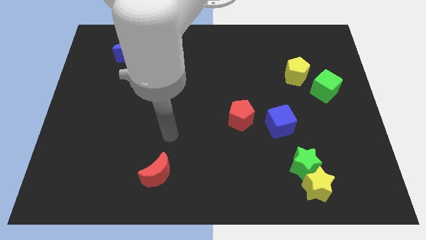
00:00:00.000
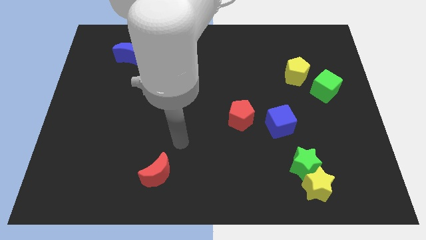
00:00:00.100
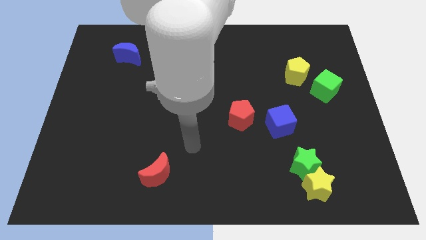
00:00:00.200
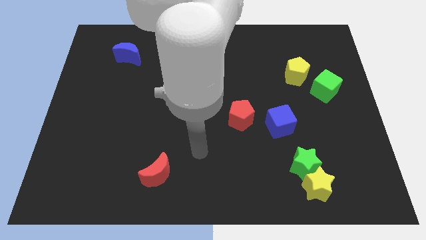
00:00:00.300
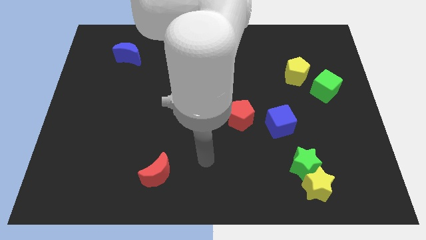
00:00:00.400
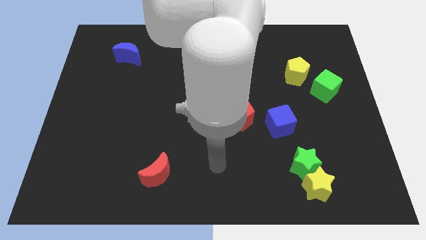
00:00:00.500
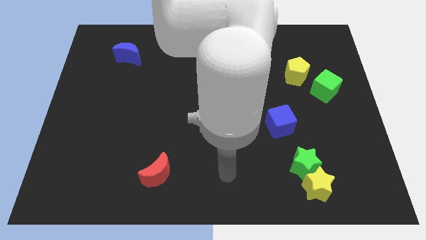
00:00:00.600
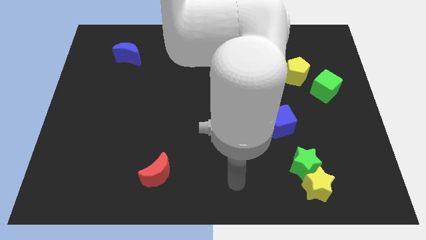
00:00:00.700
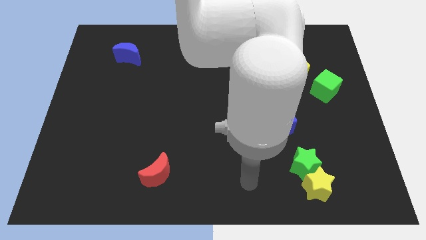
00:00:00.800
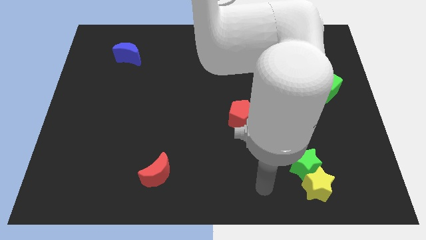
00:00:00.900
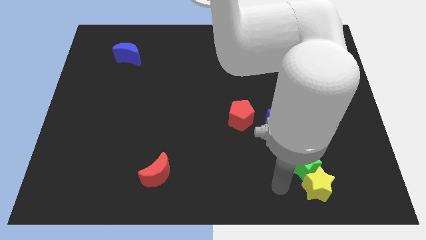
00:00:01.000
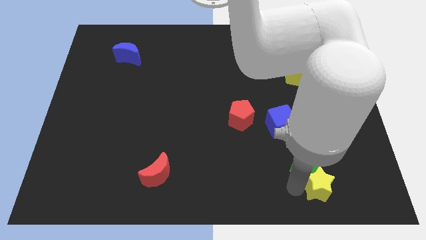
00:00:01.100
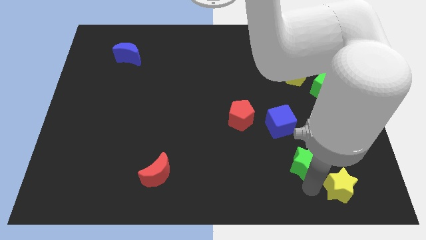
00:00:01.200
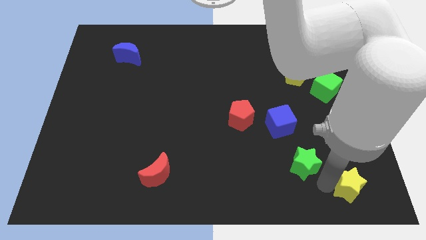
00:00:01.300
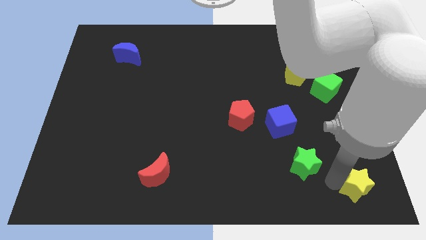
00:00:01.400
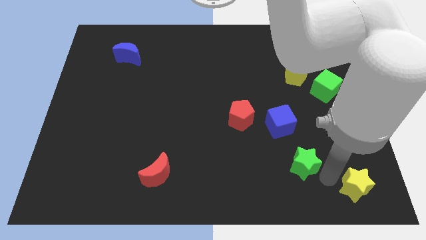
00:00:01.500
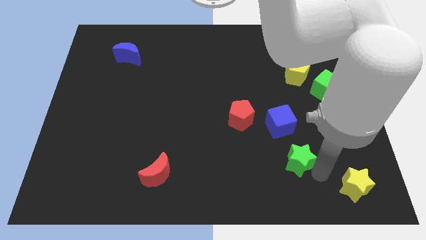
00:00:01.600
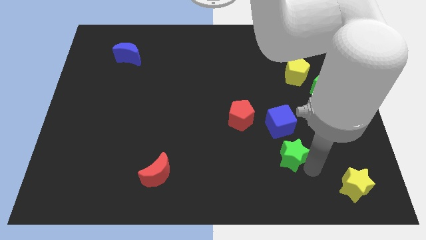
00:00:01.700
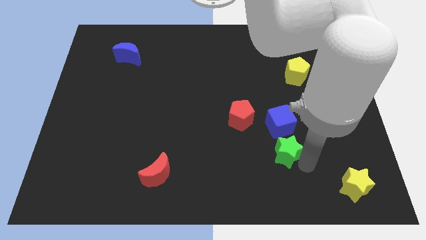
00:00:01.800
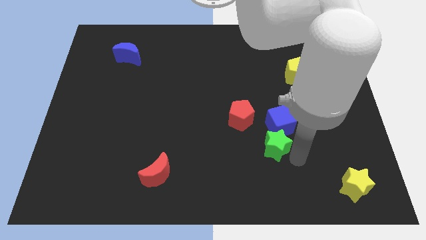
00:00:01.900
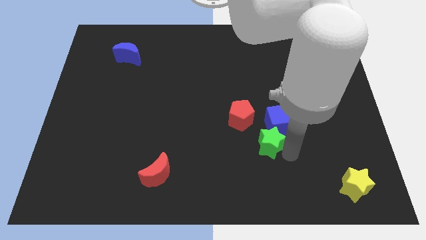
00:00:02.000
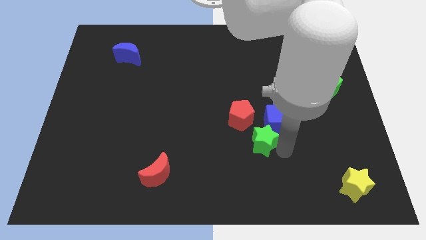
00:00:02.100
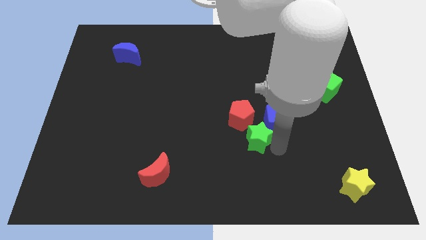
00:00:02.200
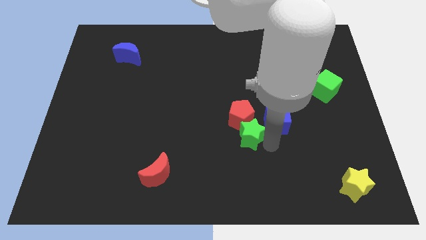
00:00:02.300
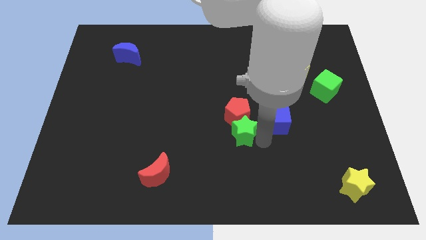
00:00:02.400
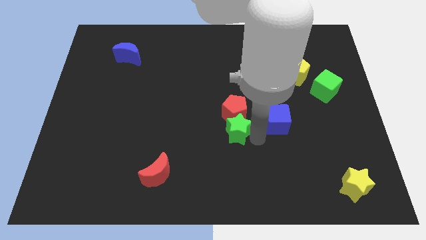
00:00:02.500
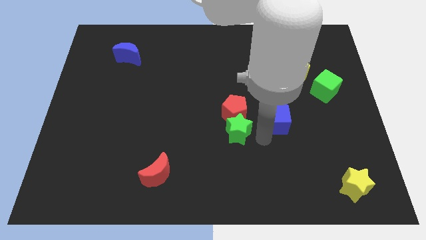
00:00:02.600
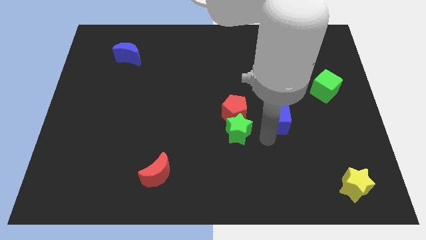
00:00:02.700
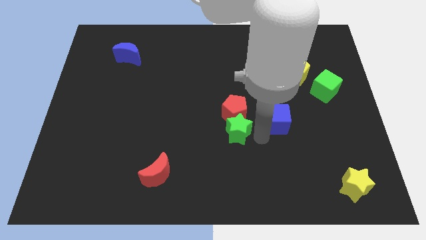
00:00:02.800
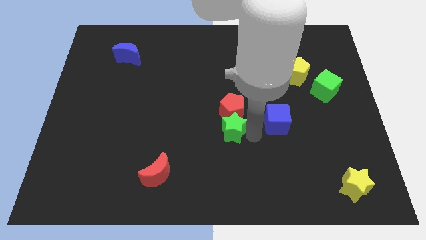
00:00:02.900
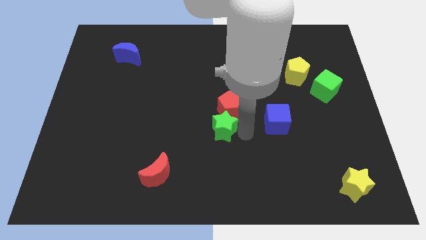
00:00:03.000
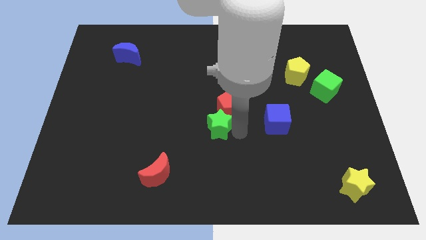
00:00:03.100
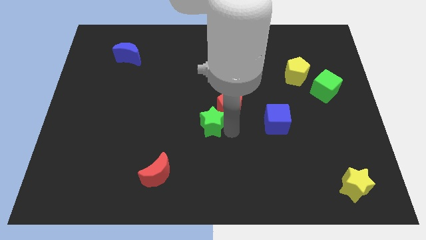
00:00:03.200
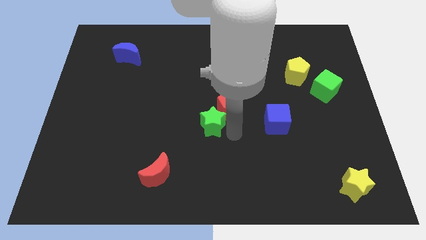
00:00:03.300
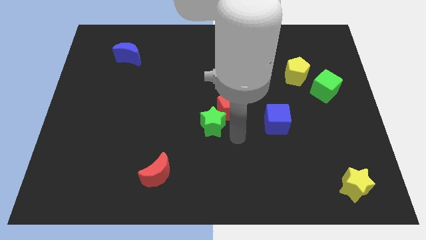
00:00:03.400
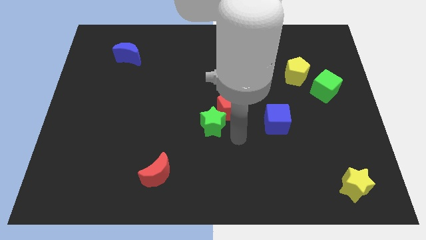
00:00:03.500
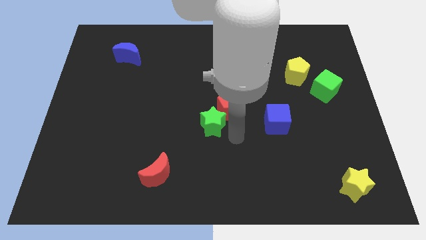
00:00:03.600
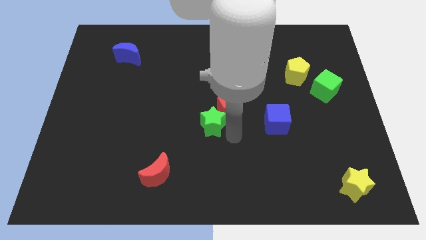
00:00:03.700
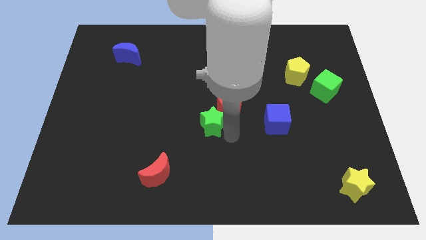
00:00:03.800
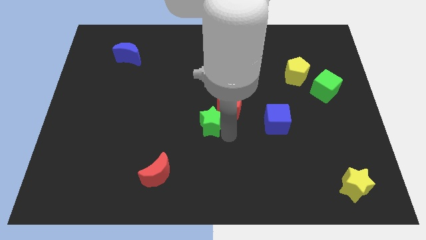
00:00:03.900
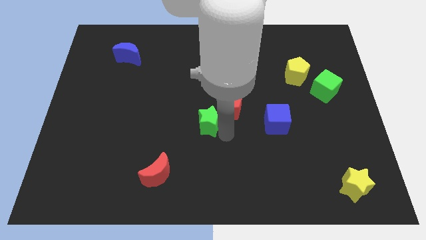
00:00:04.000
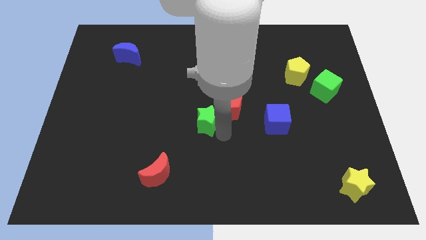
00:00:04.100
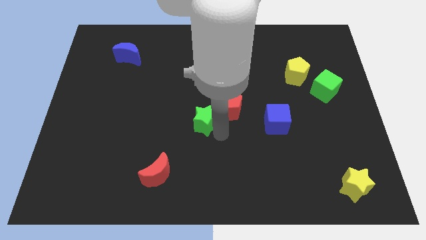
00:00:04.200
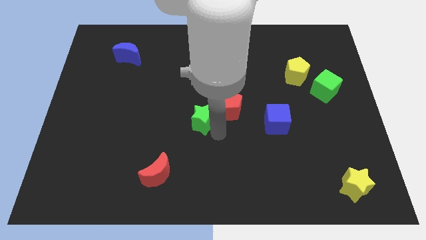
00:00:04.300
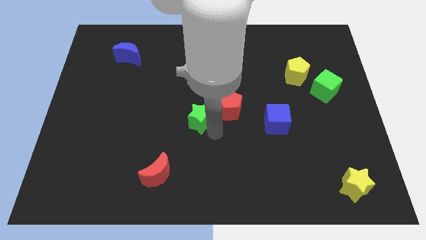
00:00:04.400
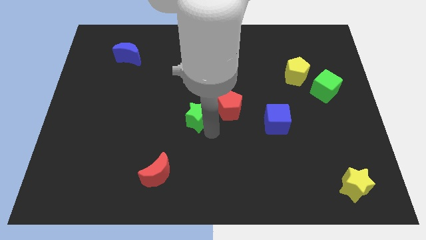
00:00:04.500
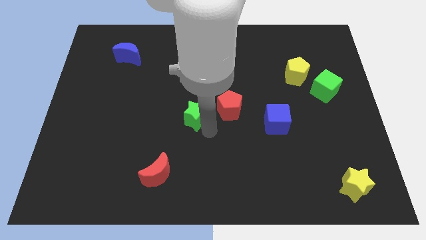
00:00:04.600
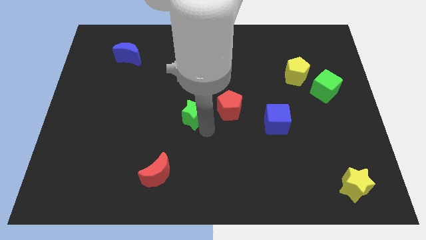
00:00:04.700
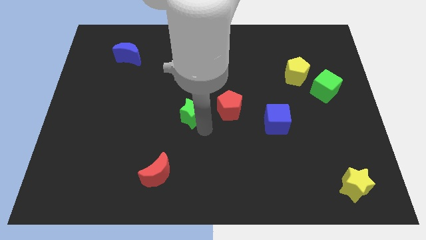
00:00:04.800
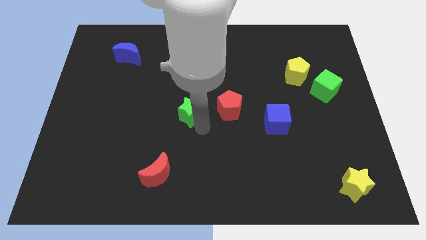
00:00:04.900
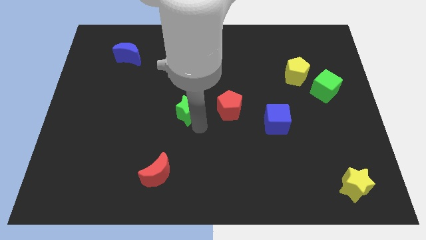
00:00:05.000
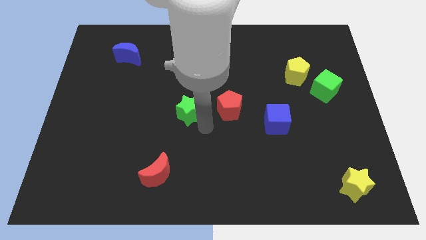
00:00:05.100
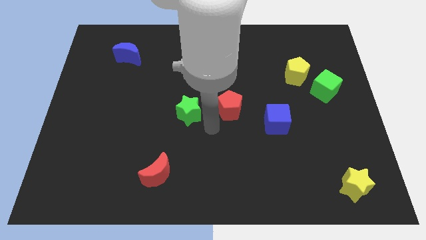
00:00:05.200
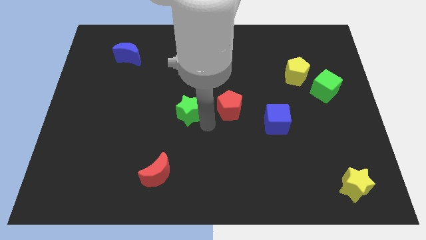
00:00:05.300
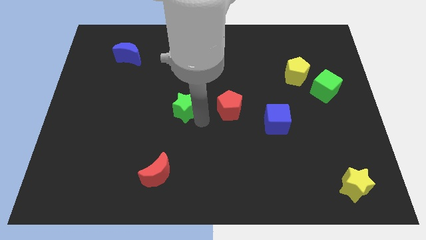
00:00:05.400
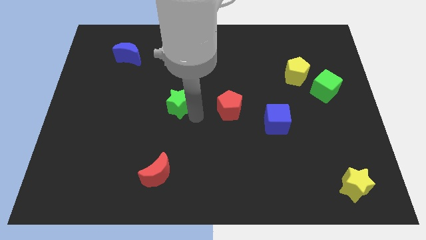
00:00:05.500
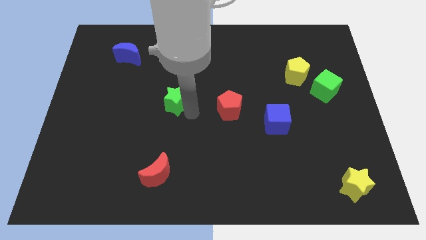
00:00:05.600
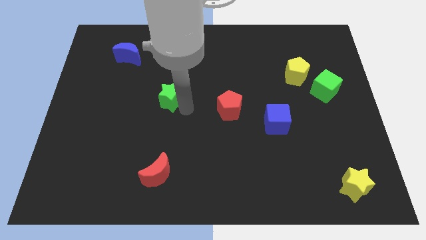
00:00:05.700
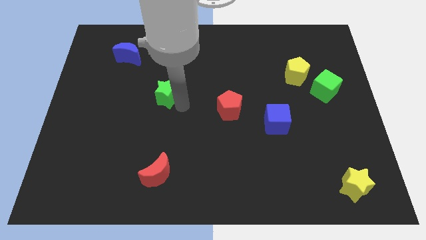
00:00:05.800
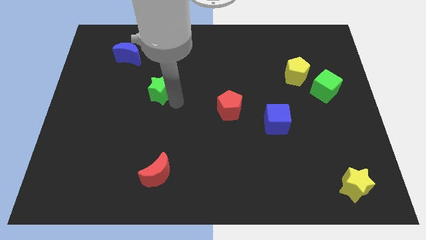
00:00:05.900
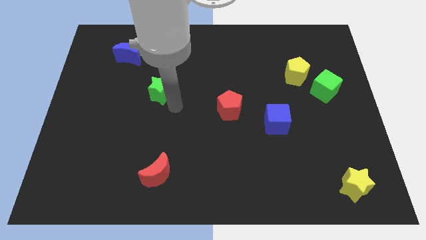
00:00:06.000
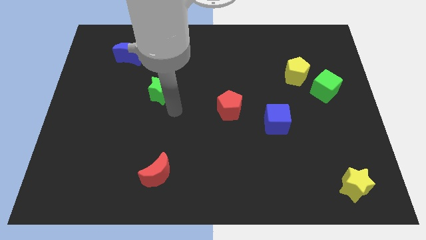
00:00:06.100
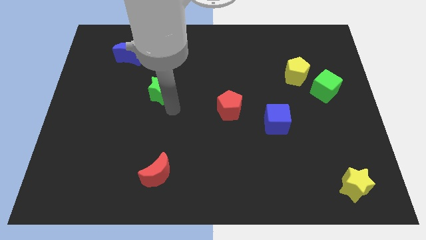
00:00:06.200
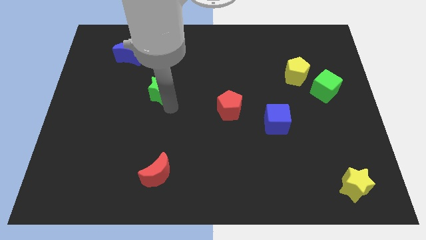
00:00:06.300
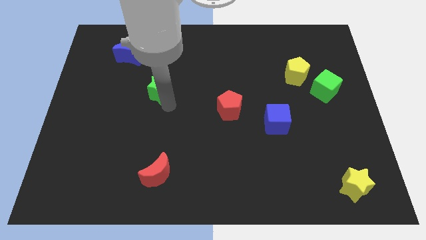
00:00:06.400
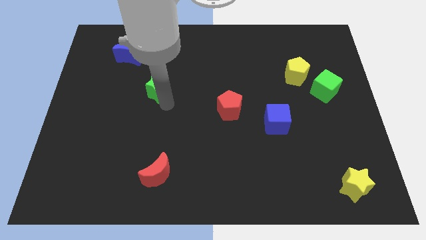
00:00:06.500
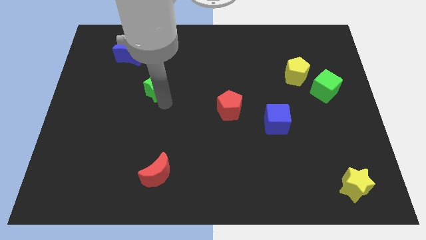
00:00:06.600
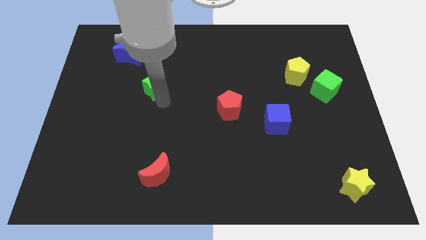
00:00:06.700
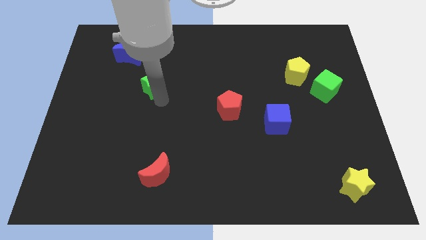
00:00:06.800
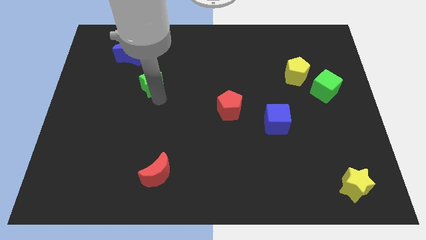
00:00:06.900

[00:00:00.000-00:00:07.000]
move the green star to the bottom right side of the blue moon
